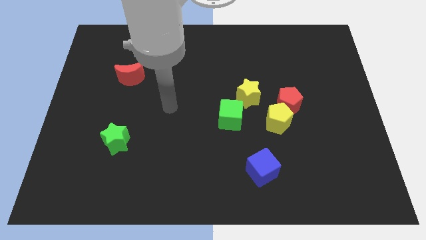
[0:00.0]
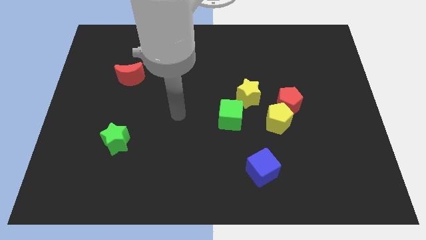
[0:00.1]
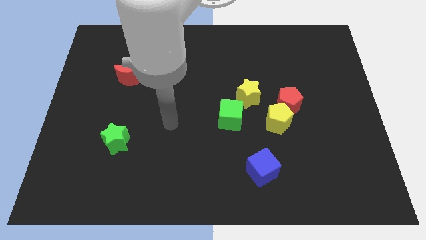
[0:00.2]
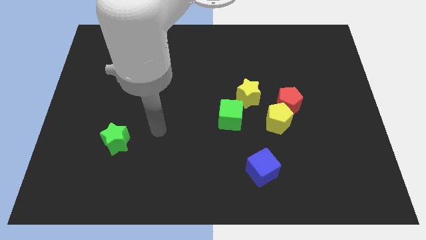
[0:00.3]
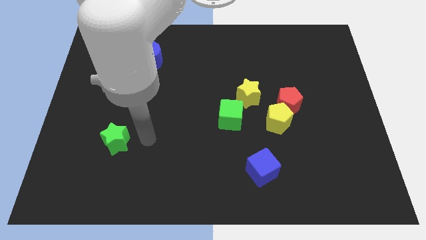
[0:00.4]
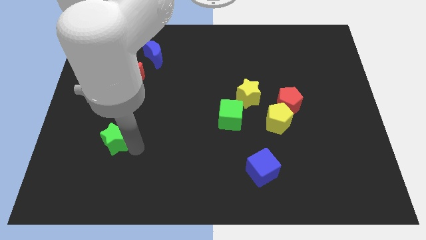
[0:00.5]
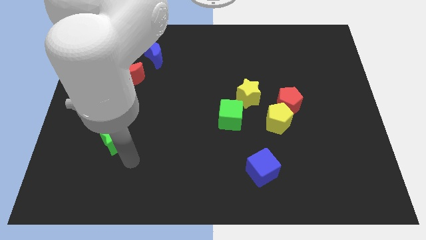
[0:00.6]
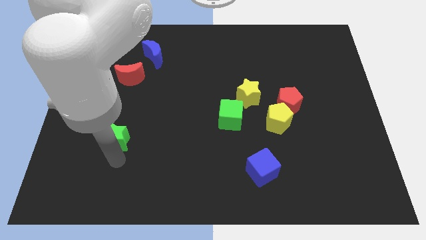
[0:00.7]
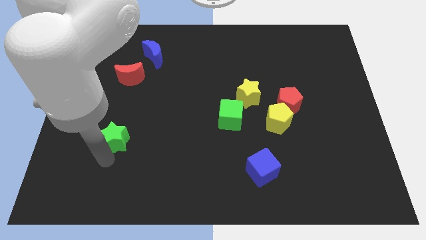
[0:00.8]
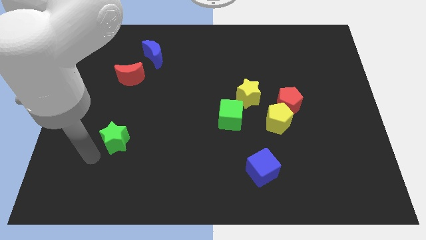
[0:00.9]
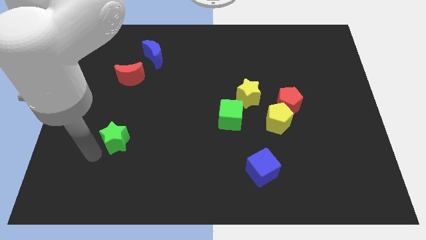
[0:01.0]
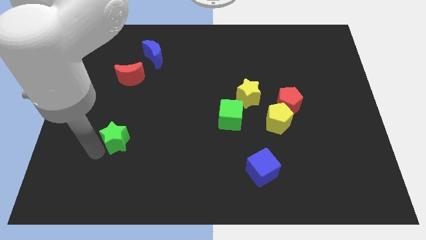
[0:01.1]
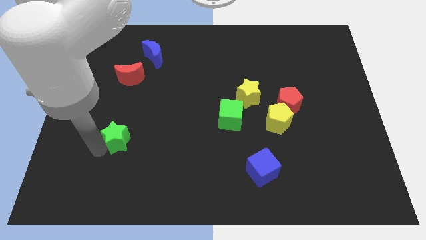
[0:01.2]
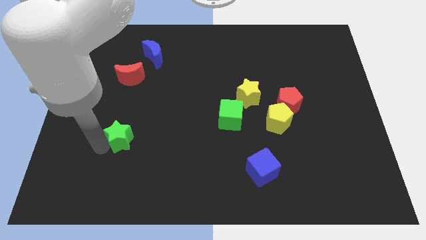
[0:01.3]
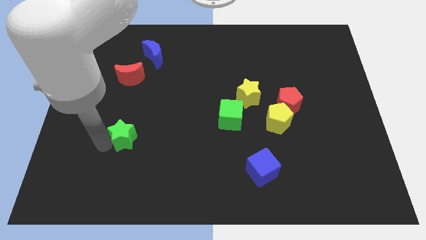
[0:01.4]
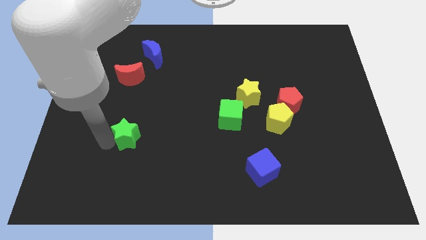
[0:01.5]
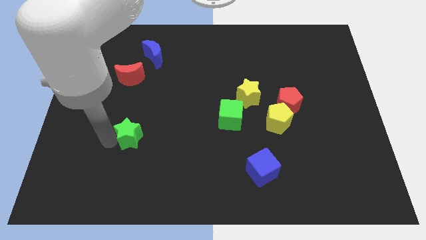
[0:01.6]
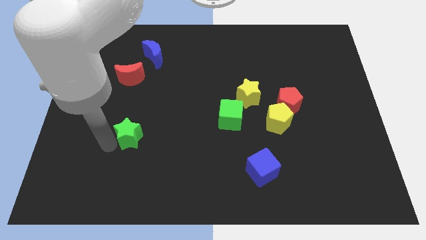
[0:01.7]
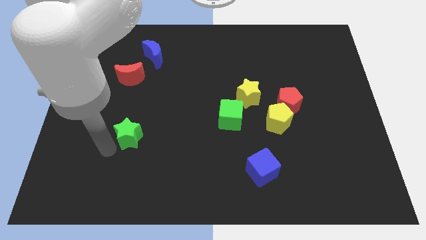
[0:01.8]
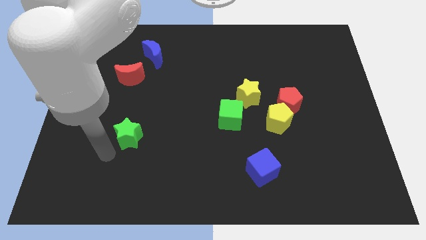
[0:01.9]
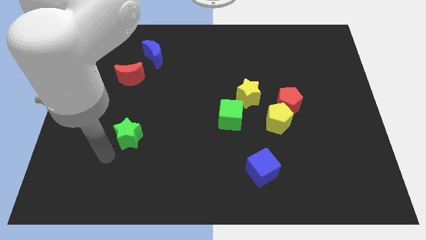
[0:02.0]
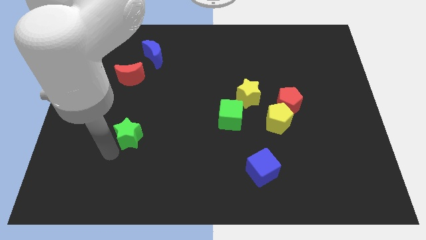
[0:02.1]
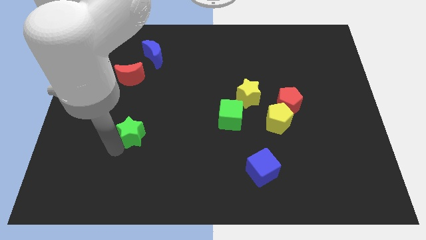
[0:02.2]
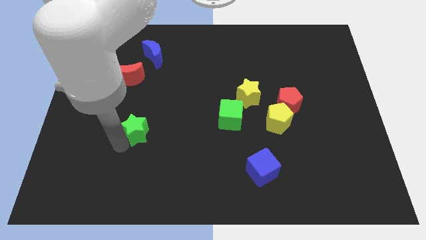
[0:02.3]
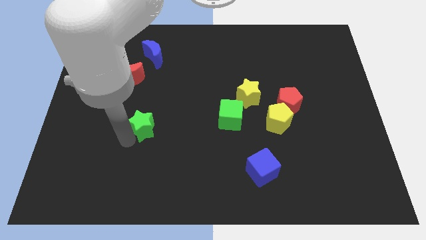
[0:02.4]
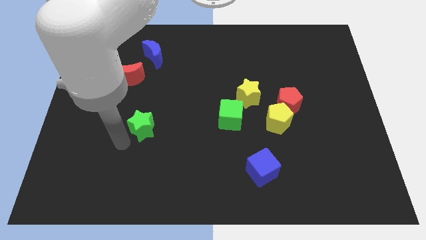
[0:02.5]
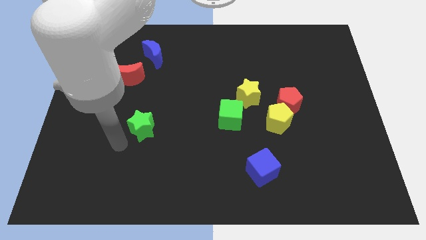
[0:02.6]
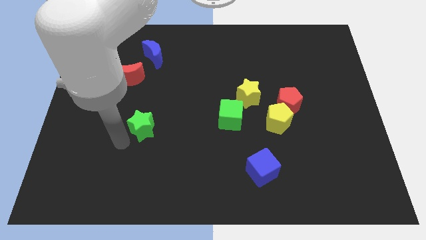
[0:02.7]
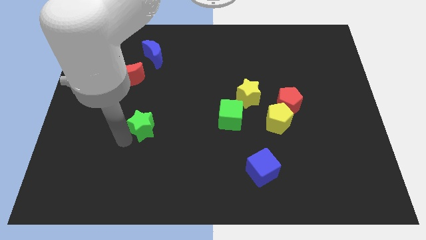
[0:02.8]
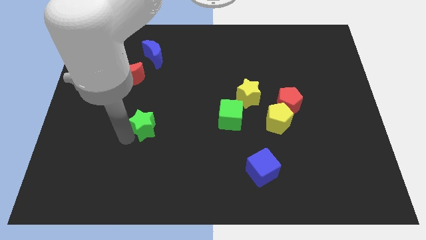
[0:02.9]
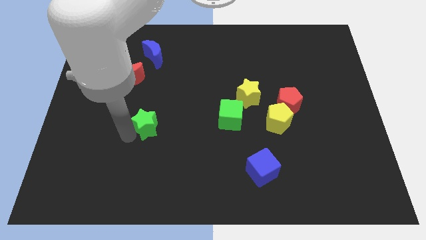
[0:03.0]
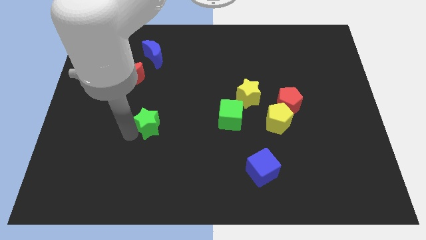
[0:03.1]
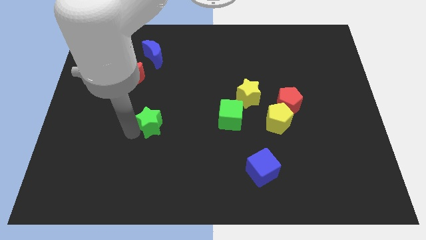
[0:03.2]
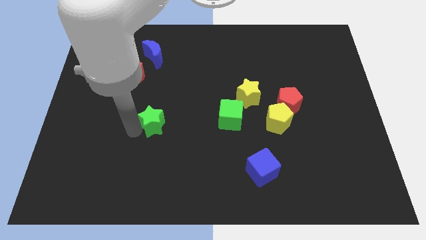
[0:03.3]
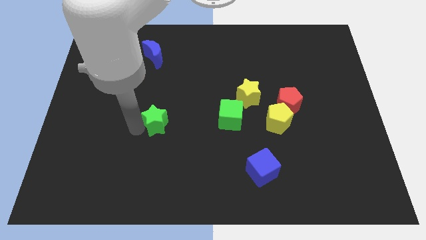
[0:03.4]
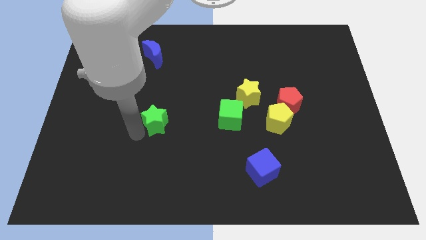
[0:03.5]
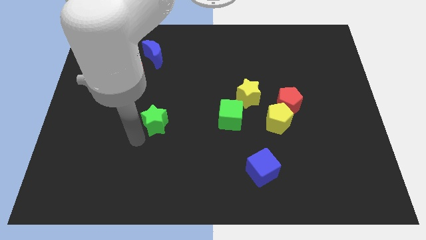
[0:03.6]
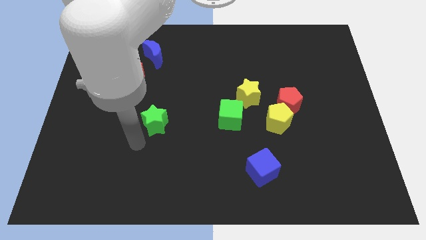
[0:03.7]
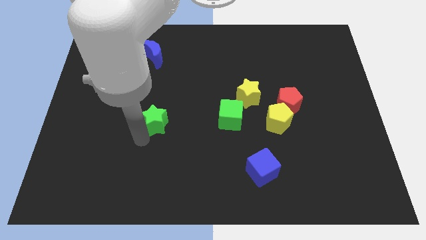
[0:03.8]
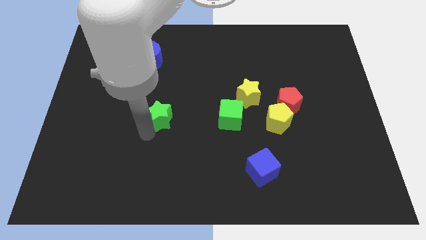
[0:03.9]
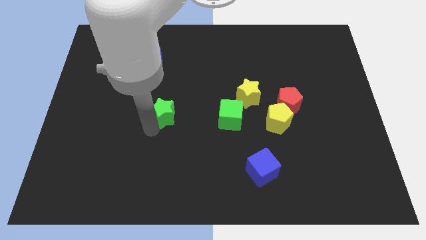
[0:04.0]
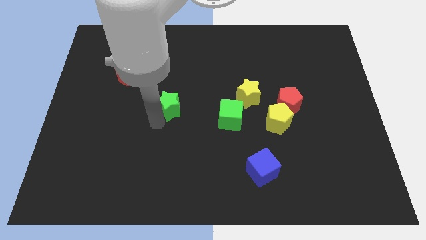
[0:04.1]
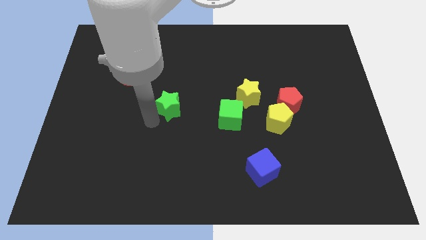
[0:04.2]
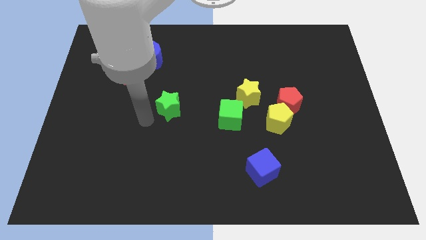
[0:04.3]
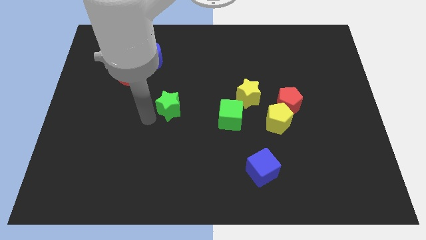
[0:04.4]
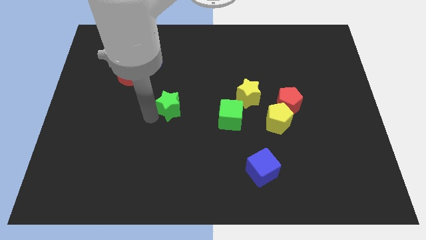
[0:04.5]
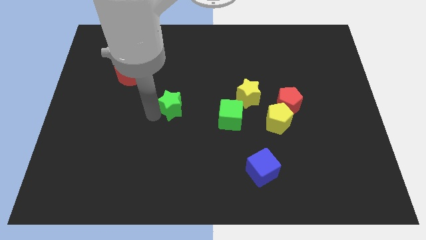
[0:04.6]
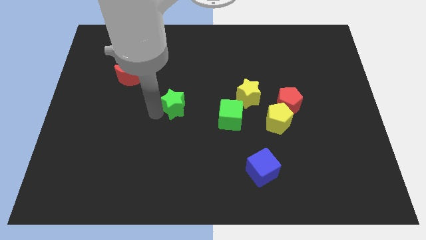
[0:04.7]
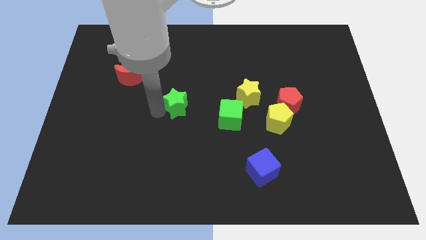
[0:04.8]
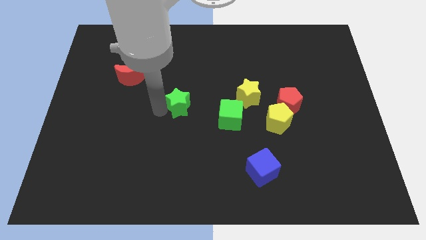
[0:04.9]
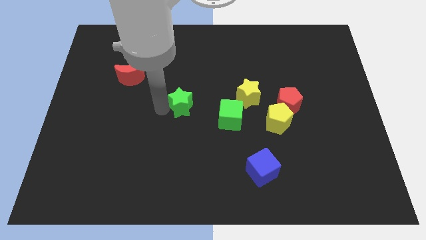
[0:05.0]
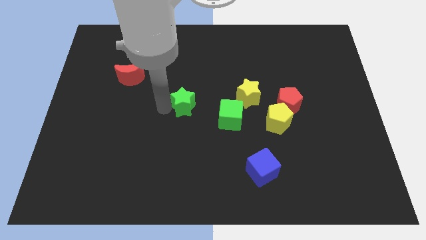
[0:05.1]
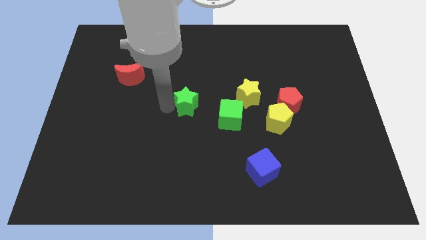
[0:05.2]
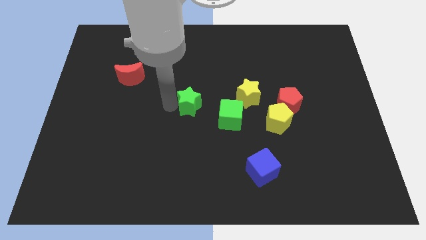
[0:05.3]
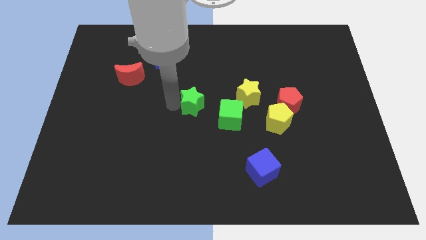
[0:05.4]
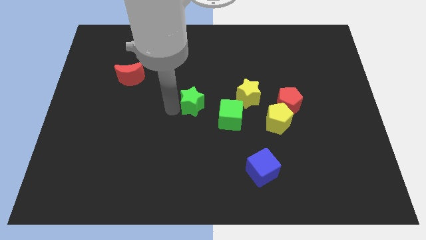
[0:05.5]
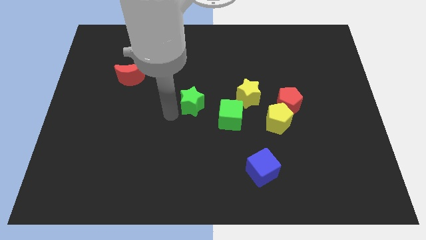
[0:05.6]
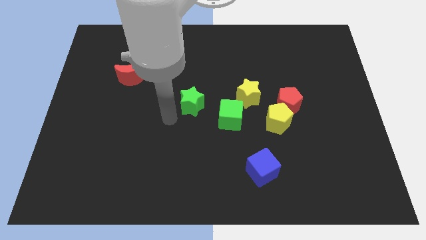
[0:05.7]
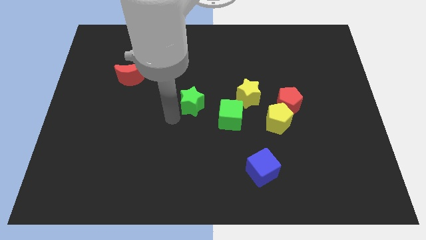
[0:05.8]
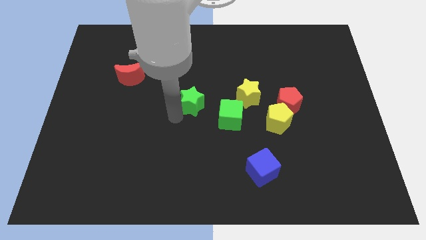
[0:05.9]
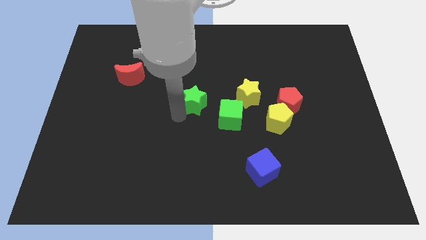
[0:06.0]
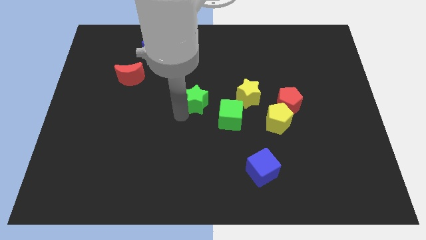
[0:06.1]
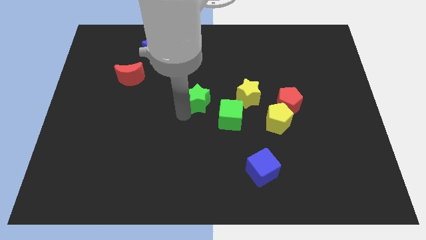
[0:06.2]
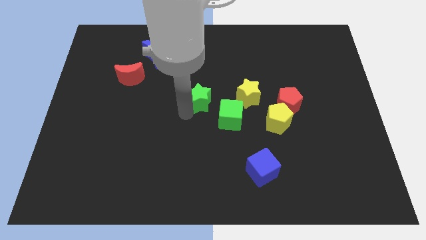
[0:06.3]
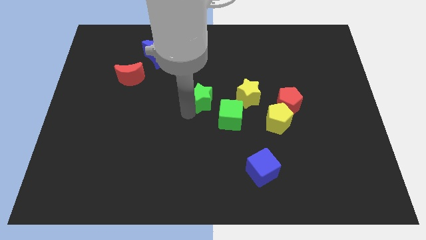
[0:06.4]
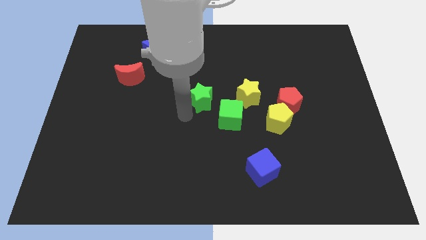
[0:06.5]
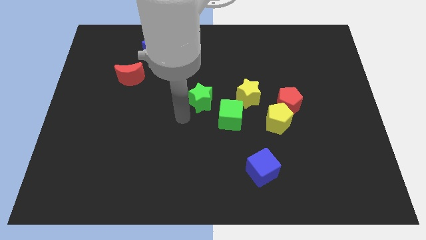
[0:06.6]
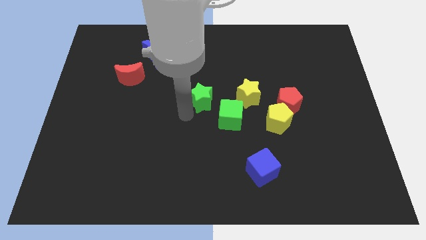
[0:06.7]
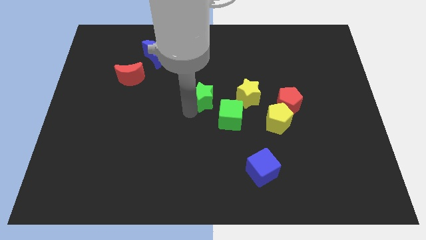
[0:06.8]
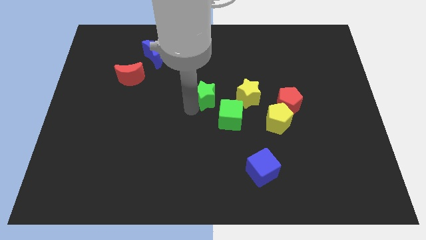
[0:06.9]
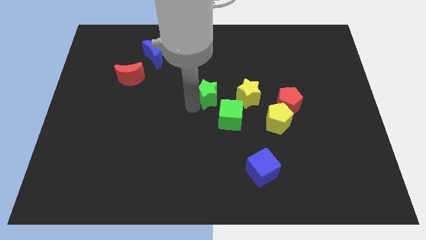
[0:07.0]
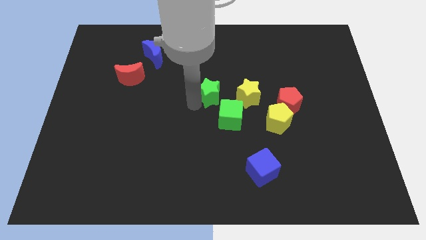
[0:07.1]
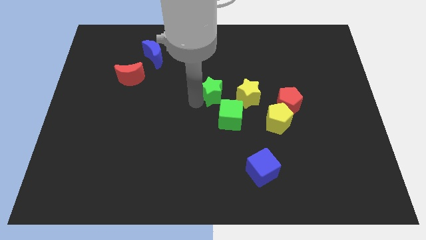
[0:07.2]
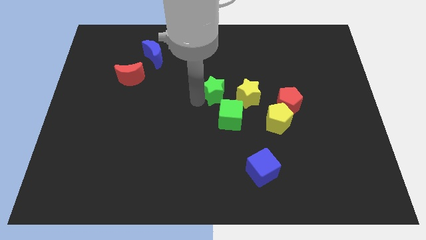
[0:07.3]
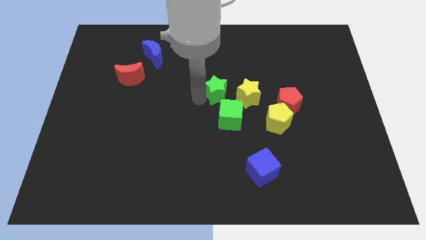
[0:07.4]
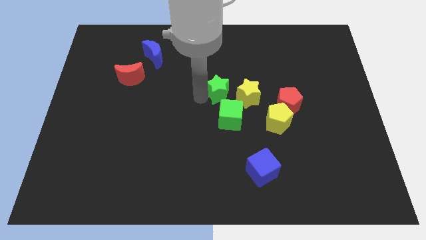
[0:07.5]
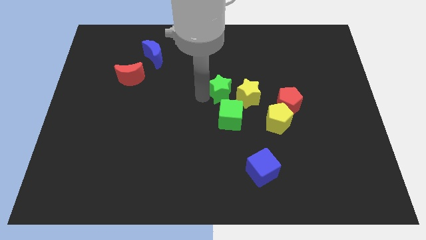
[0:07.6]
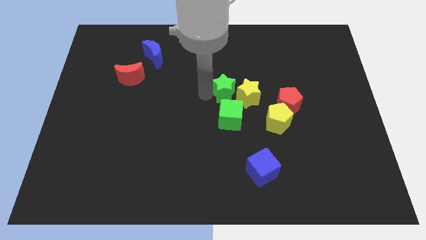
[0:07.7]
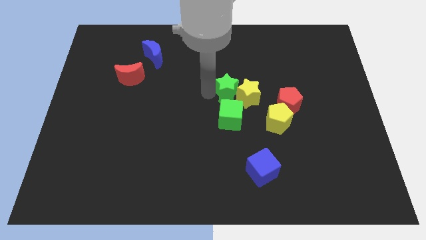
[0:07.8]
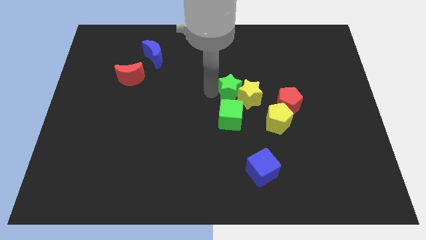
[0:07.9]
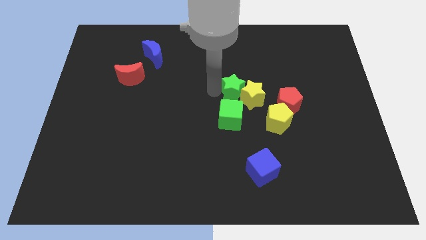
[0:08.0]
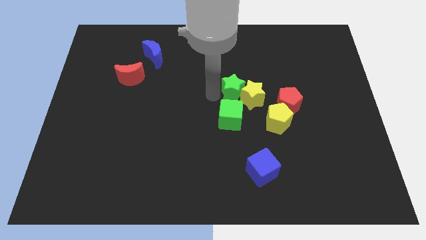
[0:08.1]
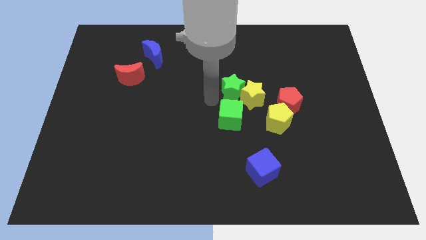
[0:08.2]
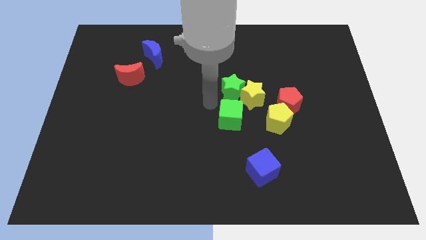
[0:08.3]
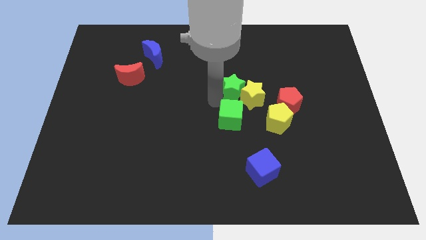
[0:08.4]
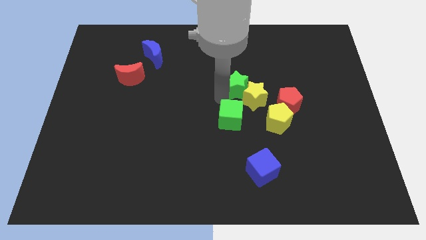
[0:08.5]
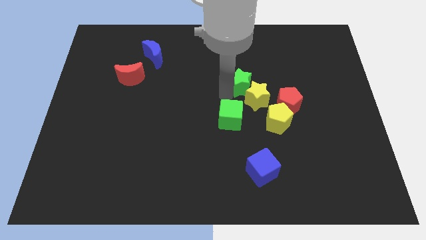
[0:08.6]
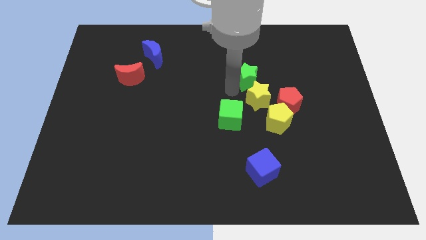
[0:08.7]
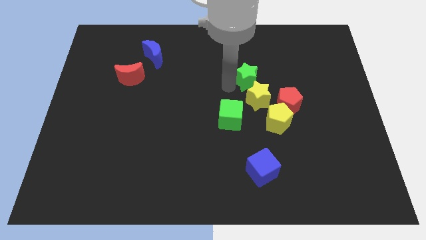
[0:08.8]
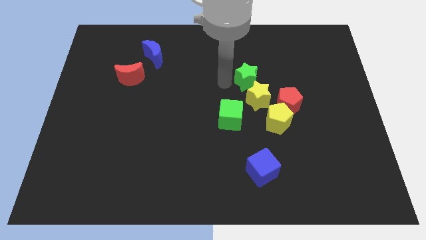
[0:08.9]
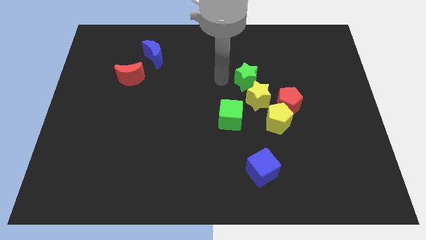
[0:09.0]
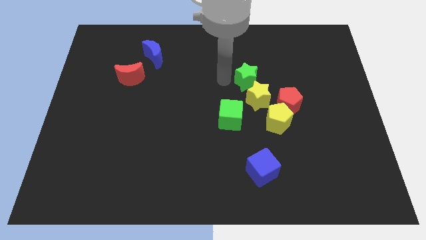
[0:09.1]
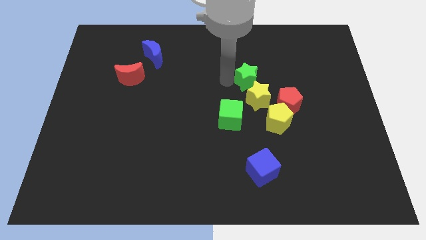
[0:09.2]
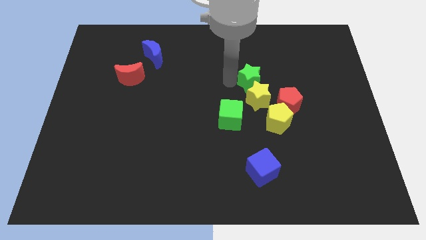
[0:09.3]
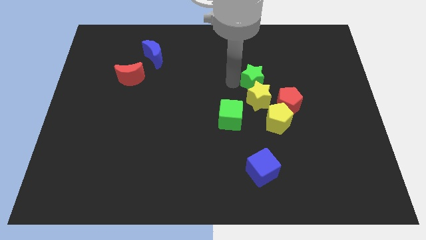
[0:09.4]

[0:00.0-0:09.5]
move the green star to the top right of the yellow star
